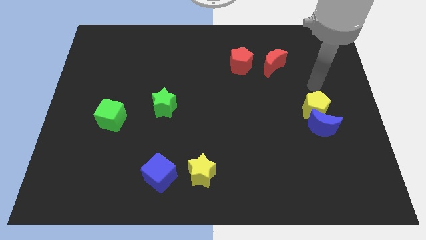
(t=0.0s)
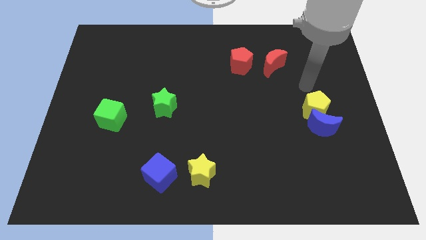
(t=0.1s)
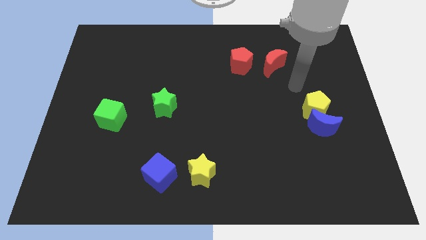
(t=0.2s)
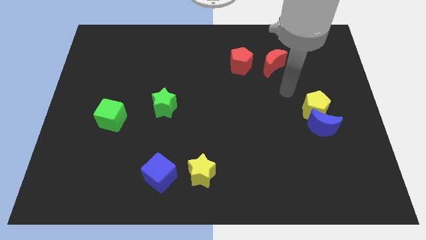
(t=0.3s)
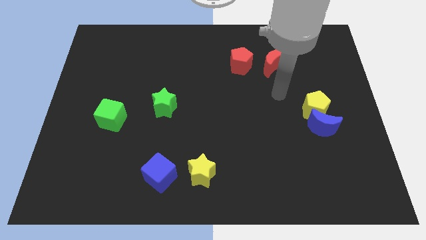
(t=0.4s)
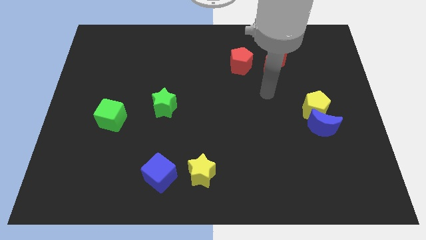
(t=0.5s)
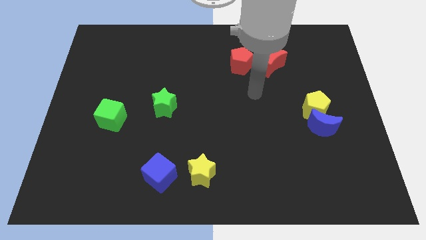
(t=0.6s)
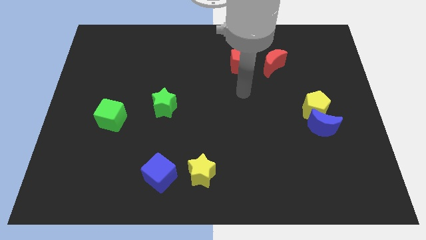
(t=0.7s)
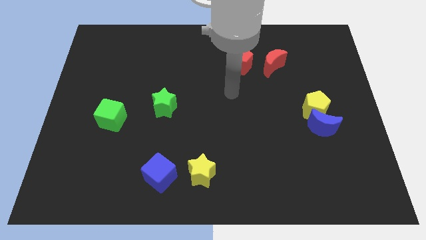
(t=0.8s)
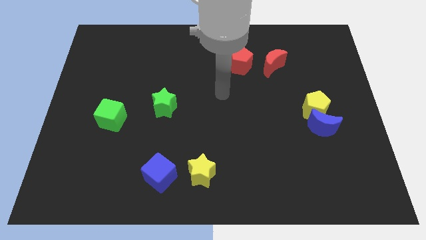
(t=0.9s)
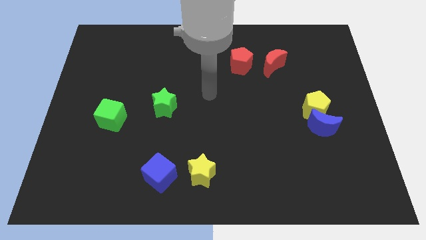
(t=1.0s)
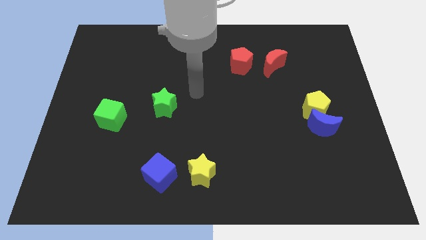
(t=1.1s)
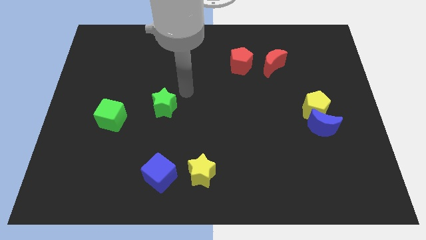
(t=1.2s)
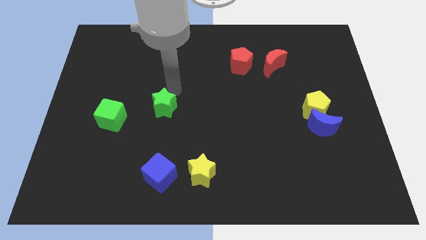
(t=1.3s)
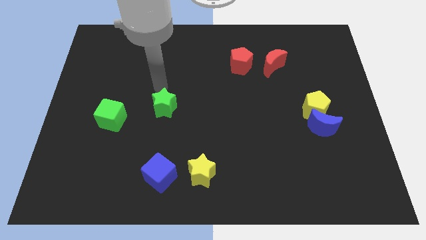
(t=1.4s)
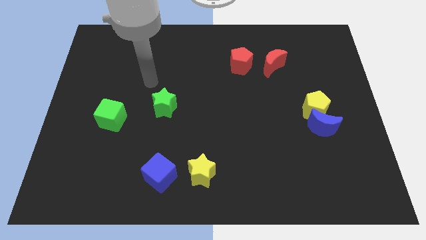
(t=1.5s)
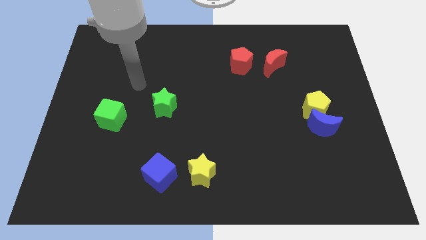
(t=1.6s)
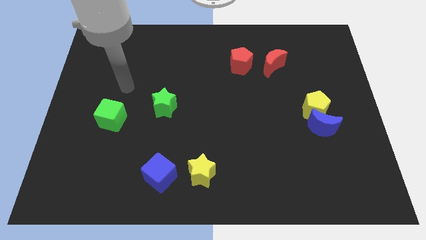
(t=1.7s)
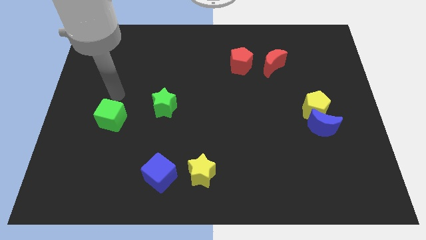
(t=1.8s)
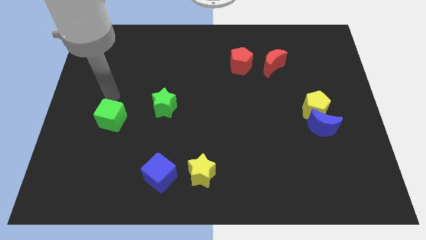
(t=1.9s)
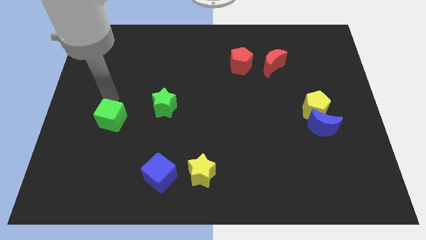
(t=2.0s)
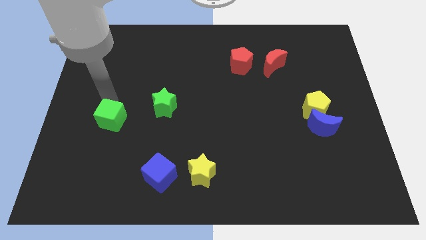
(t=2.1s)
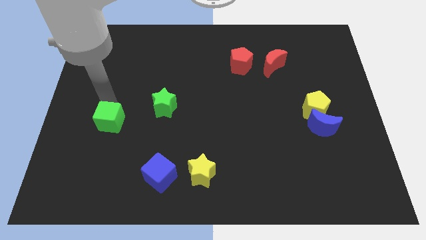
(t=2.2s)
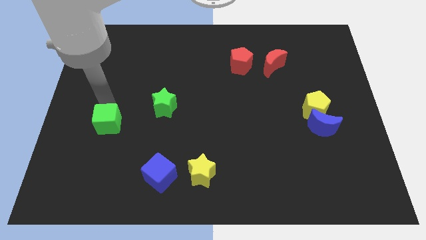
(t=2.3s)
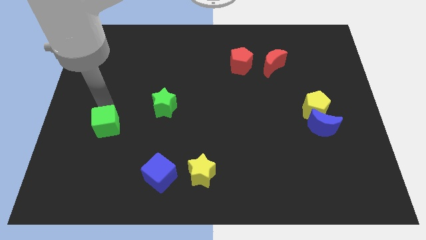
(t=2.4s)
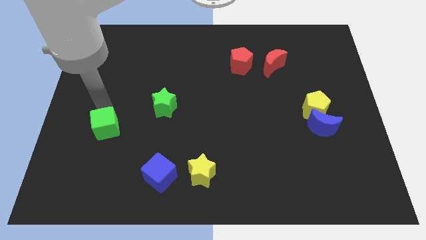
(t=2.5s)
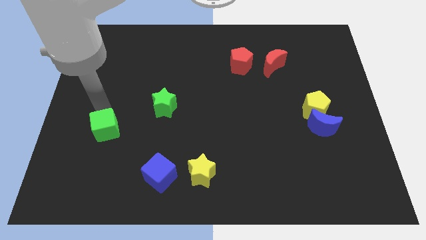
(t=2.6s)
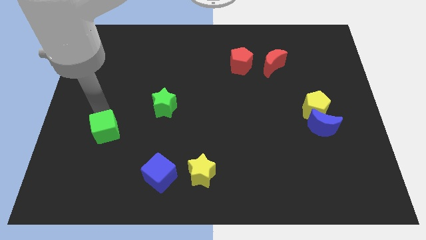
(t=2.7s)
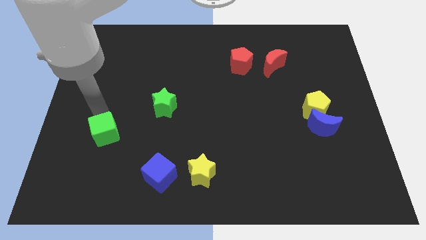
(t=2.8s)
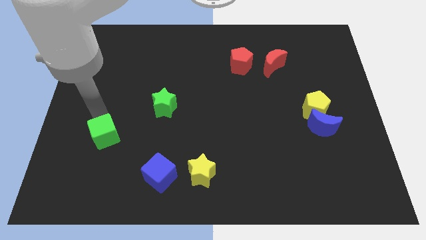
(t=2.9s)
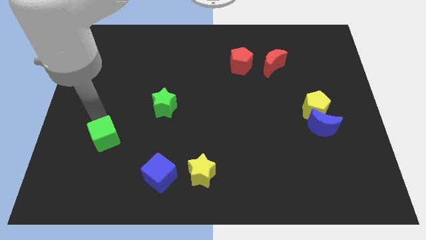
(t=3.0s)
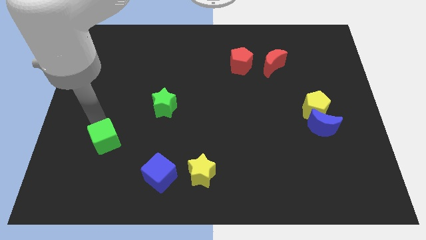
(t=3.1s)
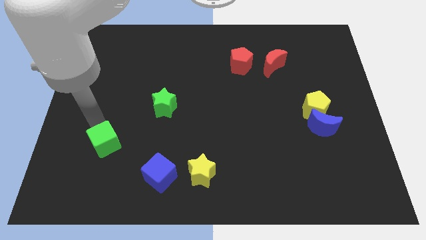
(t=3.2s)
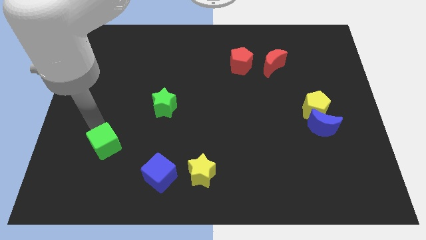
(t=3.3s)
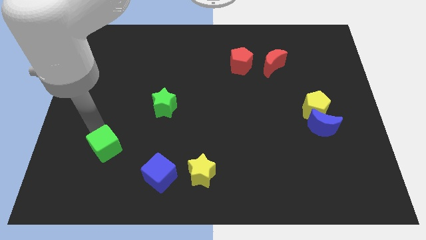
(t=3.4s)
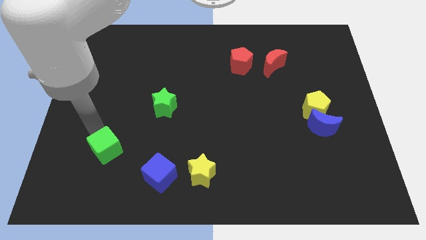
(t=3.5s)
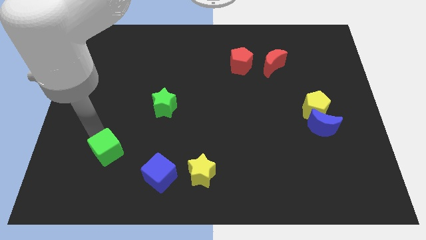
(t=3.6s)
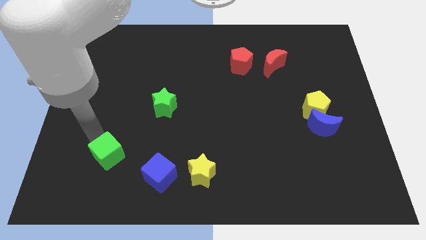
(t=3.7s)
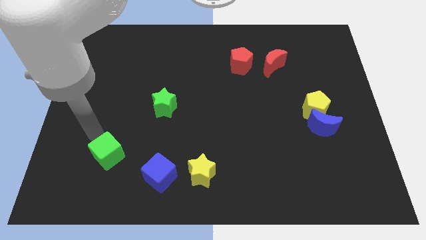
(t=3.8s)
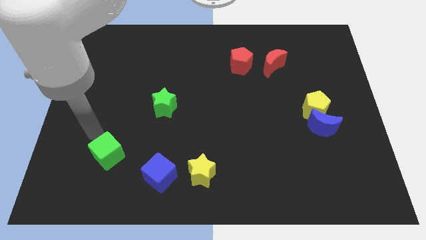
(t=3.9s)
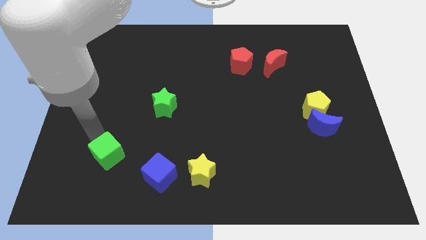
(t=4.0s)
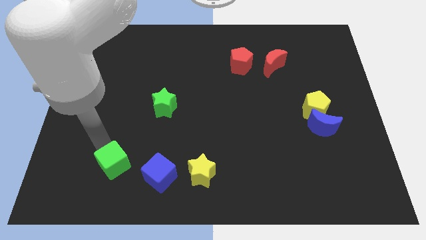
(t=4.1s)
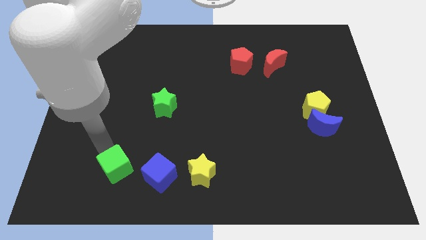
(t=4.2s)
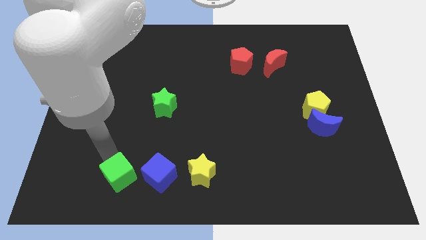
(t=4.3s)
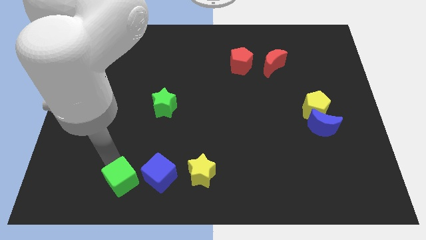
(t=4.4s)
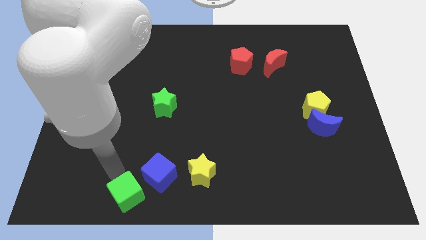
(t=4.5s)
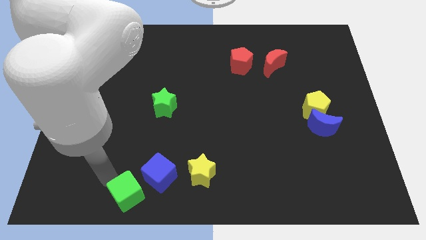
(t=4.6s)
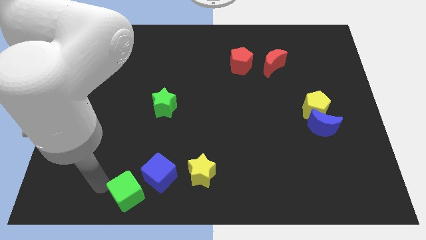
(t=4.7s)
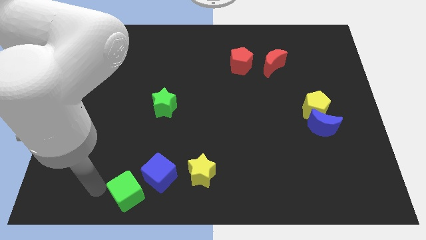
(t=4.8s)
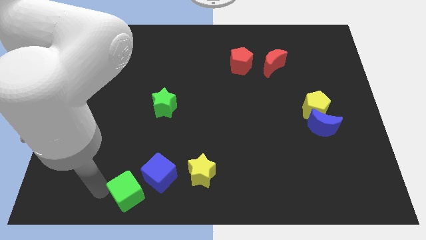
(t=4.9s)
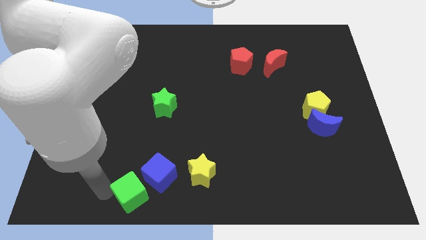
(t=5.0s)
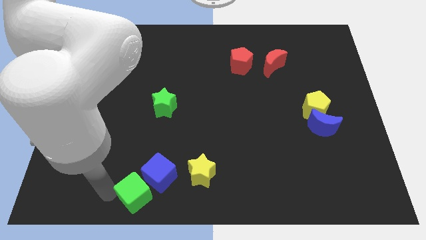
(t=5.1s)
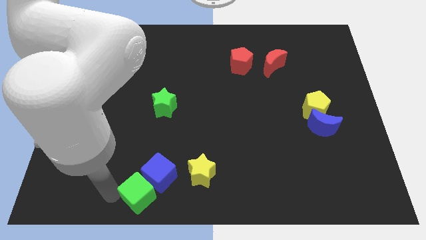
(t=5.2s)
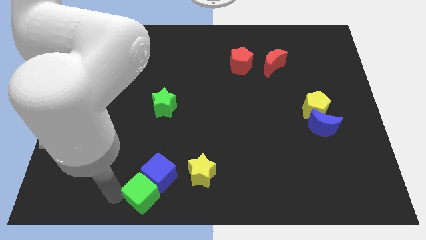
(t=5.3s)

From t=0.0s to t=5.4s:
put the green cube to the bottom

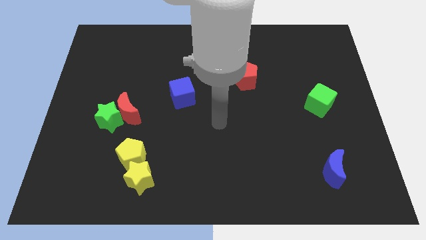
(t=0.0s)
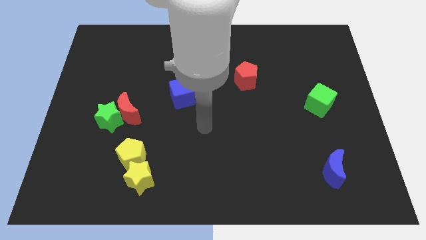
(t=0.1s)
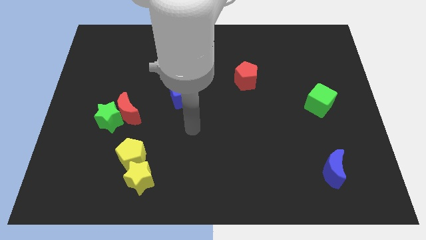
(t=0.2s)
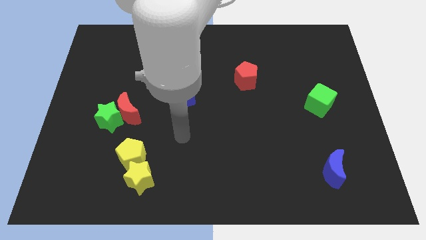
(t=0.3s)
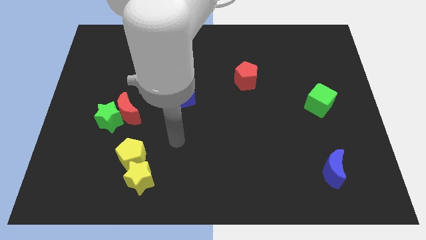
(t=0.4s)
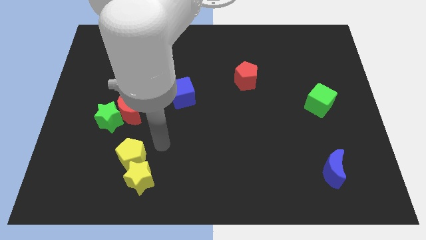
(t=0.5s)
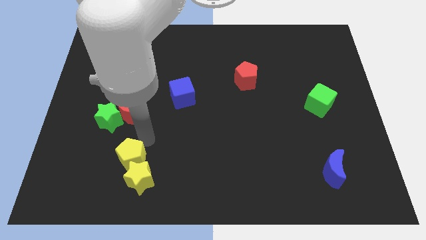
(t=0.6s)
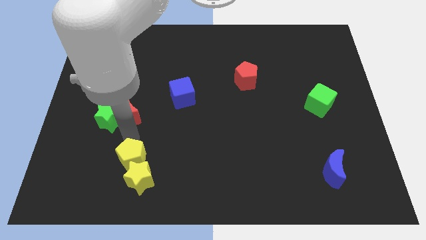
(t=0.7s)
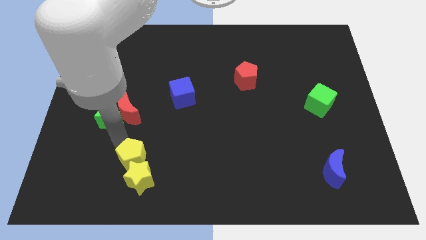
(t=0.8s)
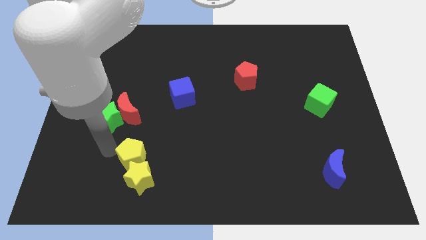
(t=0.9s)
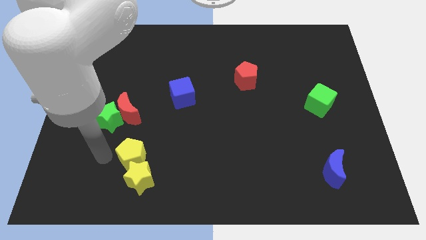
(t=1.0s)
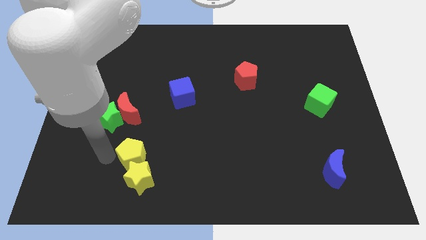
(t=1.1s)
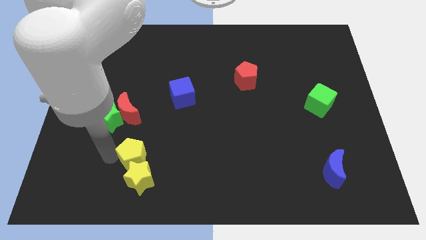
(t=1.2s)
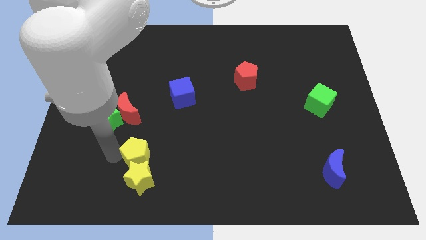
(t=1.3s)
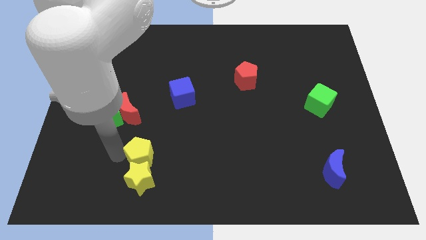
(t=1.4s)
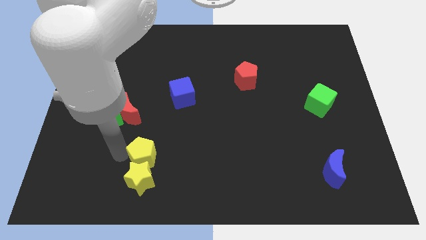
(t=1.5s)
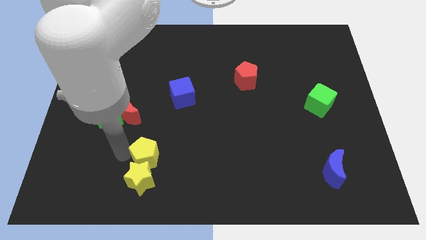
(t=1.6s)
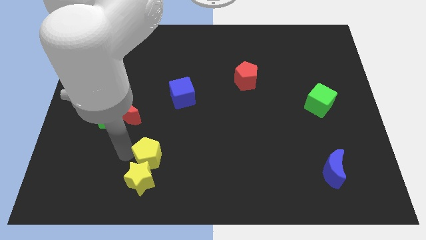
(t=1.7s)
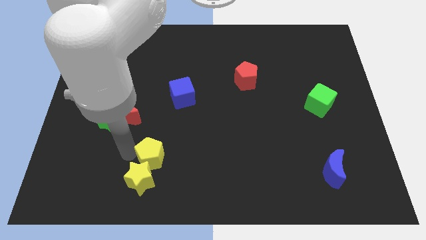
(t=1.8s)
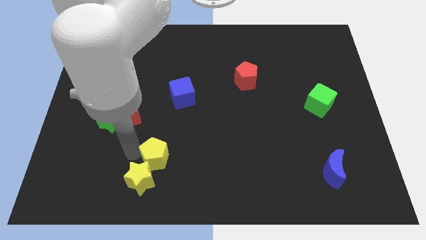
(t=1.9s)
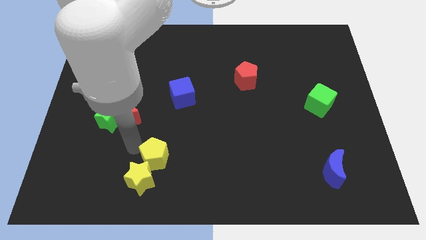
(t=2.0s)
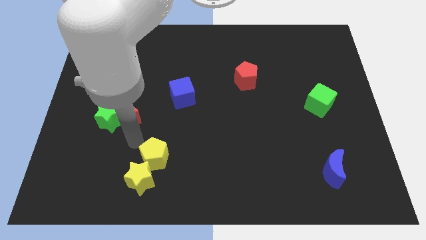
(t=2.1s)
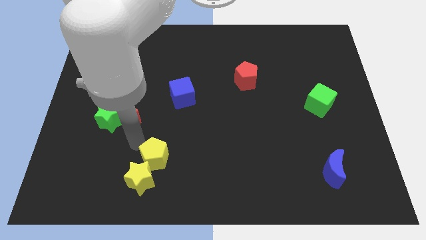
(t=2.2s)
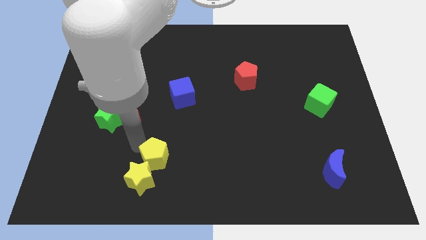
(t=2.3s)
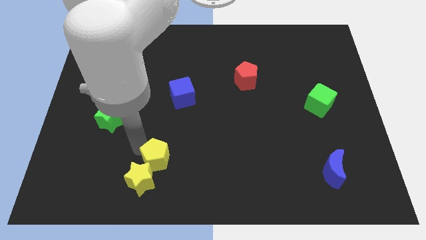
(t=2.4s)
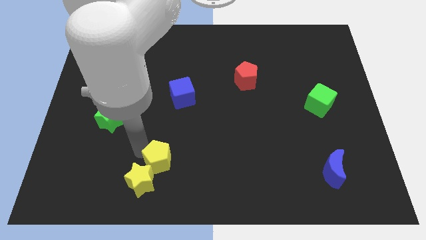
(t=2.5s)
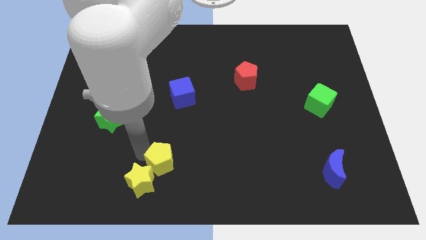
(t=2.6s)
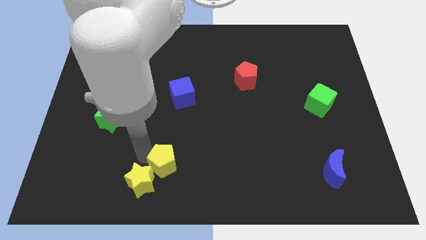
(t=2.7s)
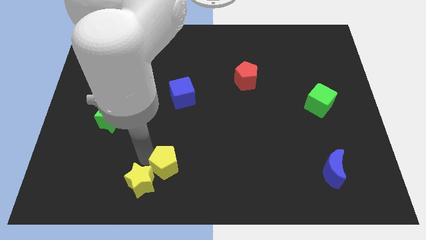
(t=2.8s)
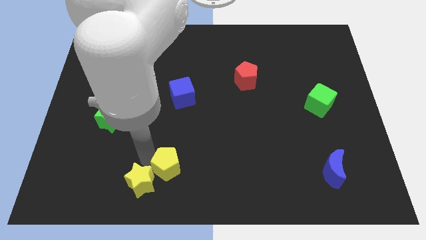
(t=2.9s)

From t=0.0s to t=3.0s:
put the yellow pentagon to the bottom side
